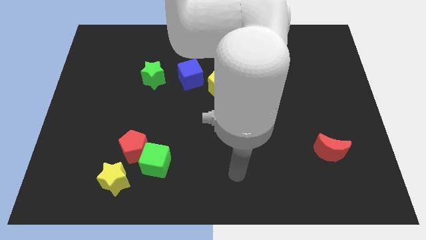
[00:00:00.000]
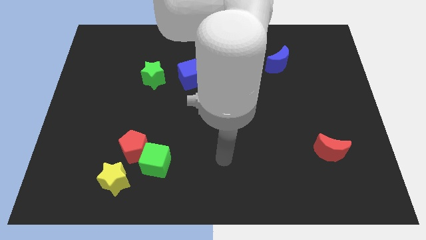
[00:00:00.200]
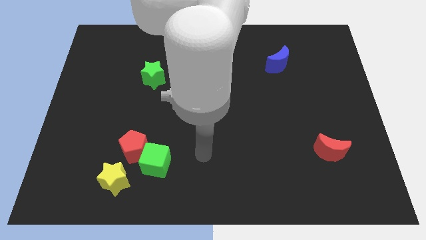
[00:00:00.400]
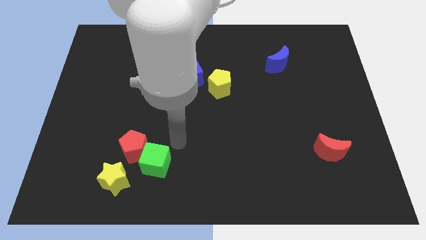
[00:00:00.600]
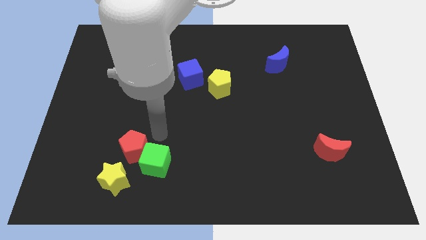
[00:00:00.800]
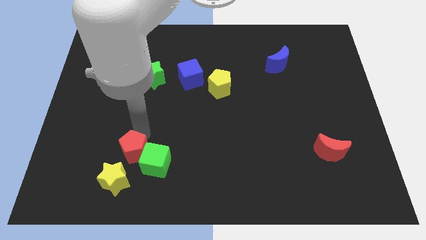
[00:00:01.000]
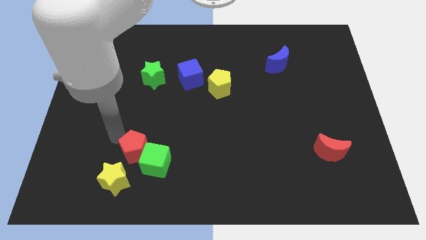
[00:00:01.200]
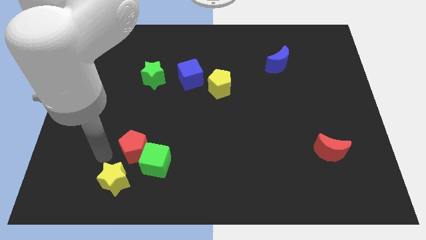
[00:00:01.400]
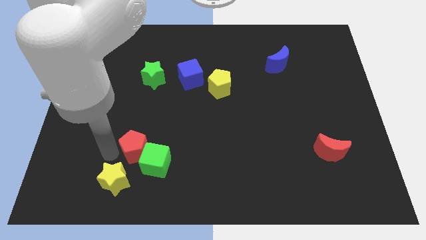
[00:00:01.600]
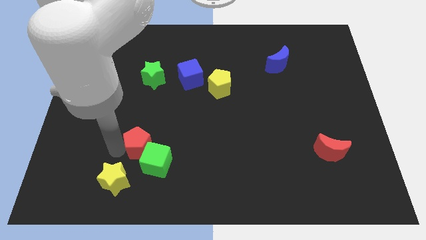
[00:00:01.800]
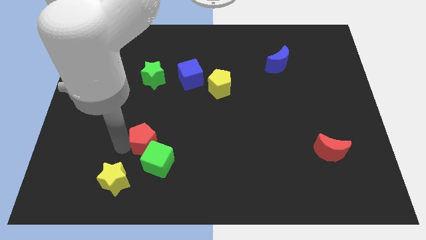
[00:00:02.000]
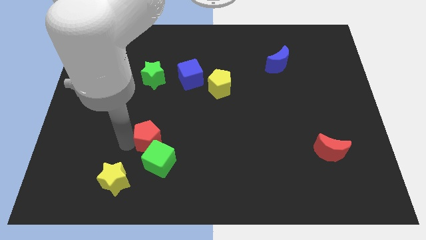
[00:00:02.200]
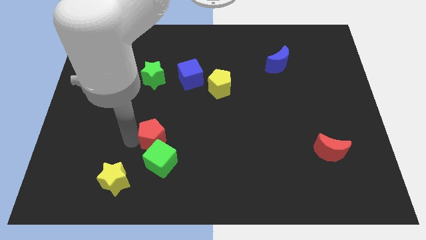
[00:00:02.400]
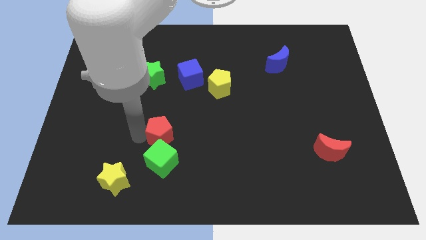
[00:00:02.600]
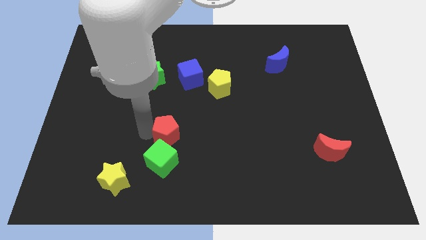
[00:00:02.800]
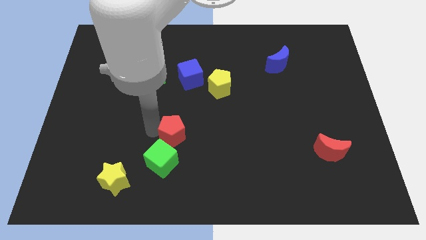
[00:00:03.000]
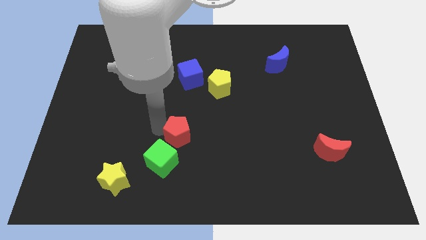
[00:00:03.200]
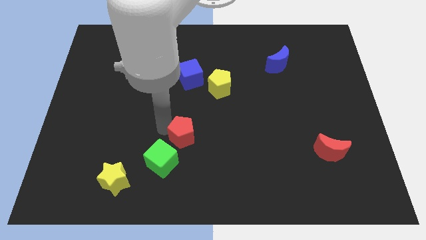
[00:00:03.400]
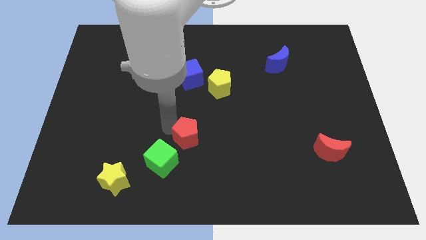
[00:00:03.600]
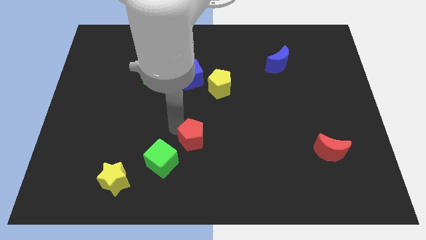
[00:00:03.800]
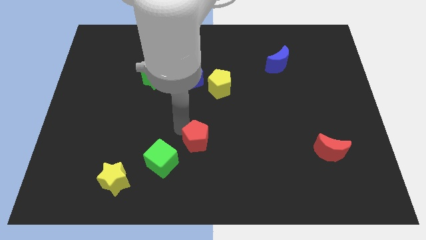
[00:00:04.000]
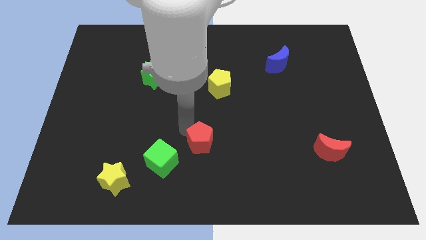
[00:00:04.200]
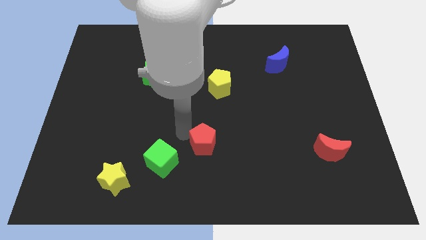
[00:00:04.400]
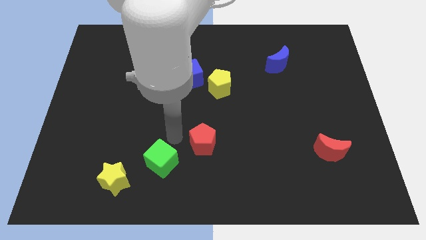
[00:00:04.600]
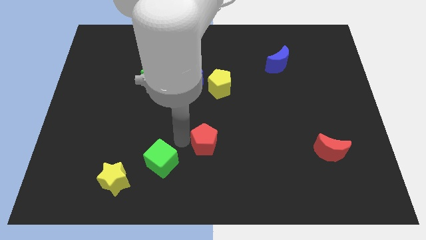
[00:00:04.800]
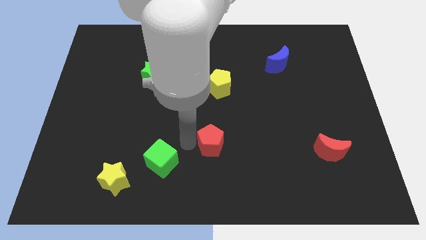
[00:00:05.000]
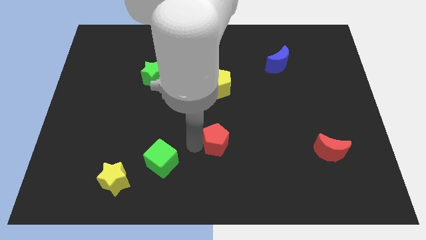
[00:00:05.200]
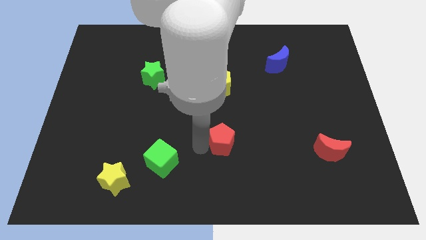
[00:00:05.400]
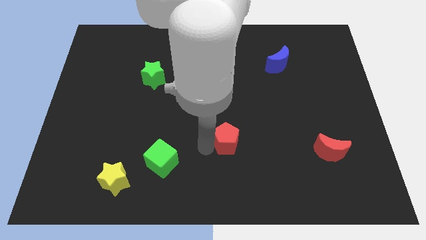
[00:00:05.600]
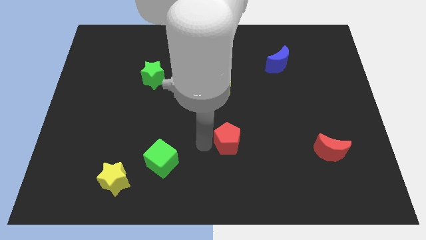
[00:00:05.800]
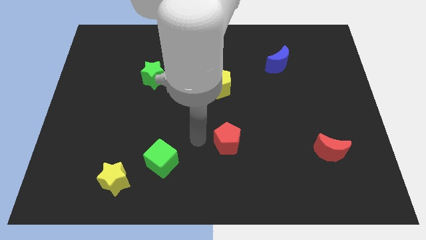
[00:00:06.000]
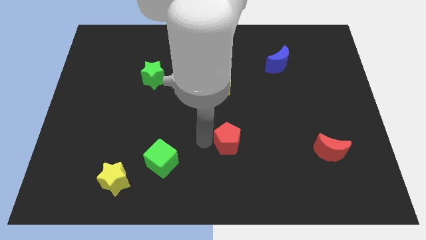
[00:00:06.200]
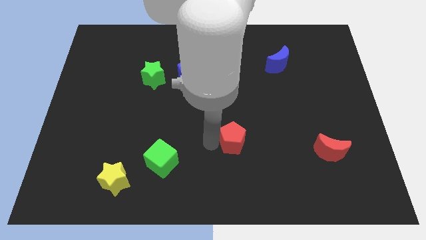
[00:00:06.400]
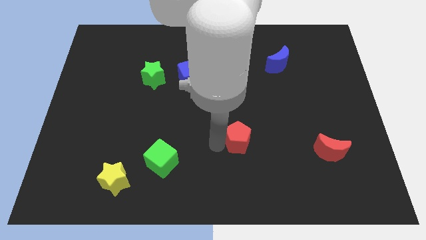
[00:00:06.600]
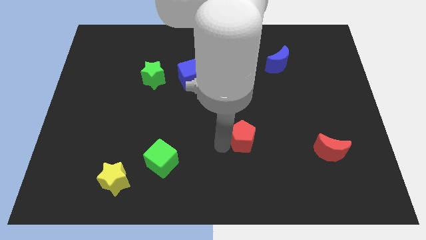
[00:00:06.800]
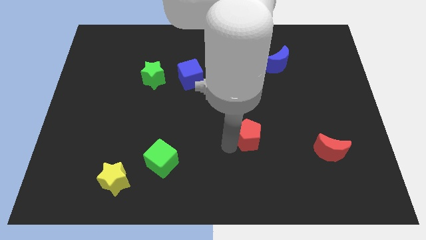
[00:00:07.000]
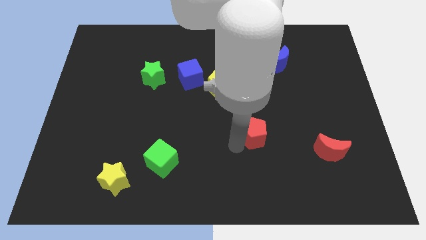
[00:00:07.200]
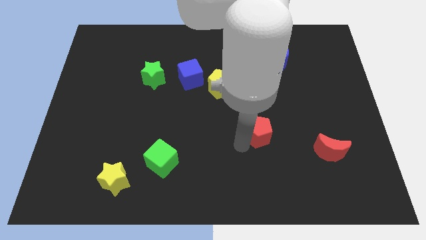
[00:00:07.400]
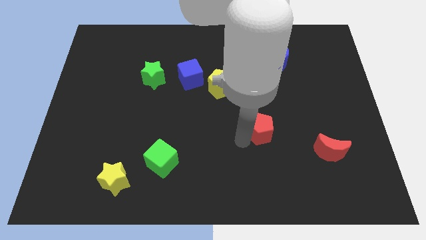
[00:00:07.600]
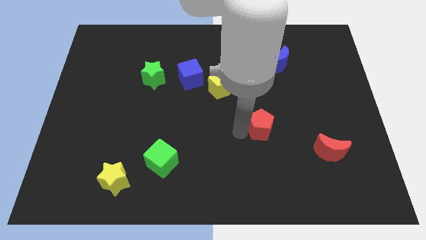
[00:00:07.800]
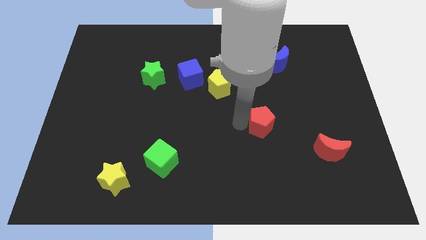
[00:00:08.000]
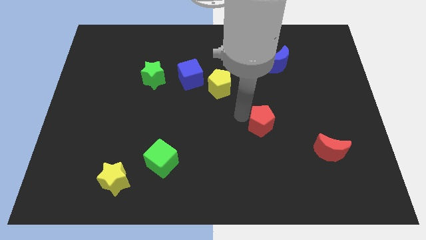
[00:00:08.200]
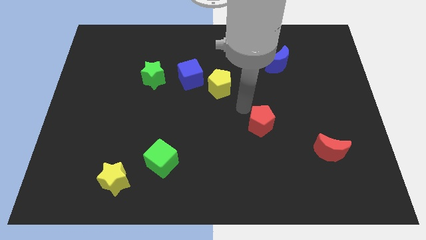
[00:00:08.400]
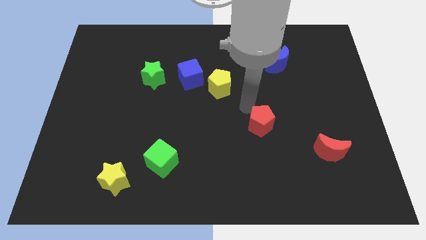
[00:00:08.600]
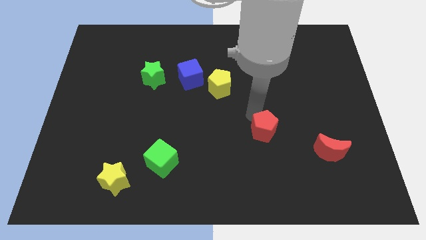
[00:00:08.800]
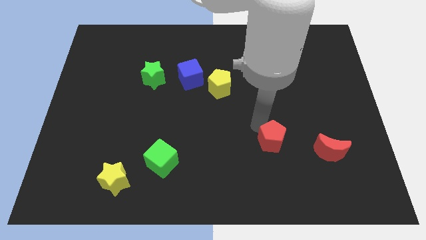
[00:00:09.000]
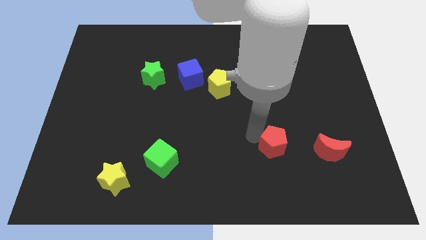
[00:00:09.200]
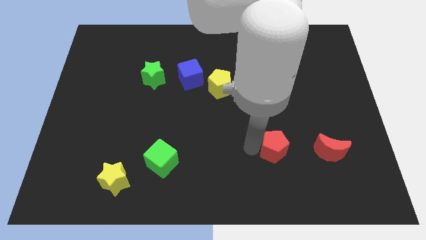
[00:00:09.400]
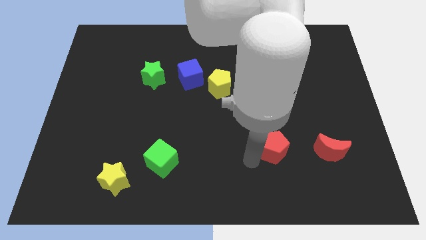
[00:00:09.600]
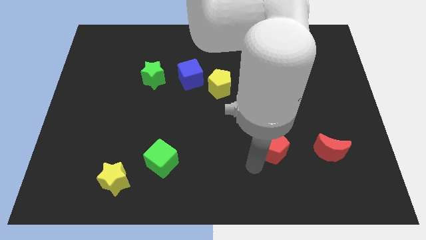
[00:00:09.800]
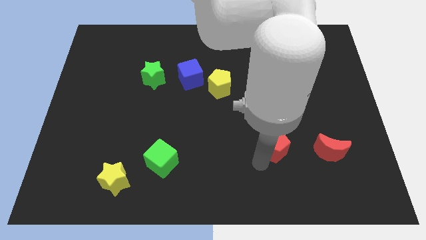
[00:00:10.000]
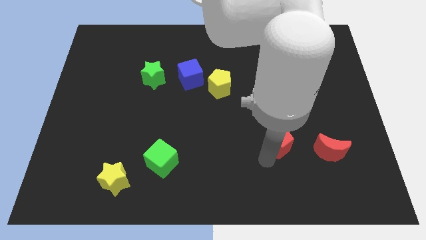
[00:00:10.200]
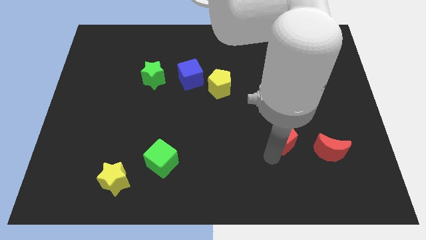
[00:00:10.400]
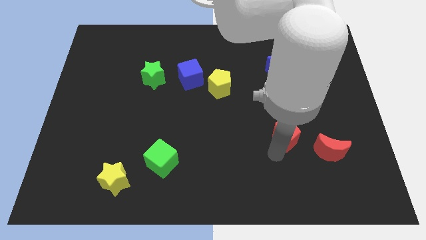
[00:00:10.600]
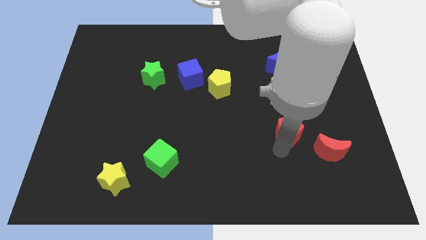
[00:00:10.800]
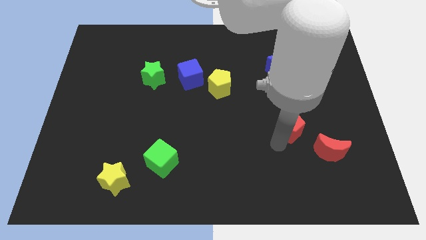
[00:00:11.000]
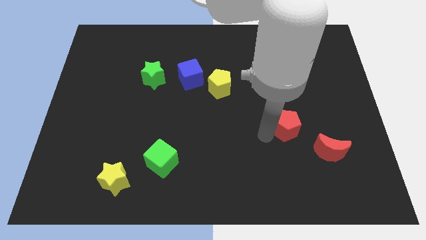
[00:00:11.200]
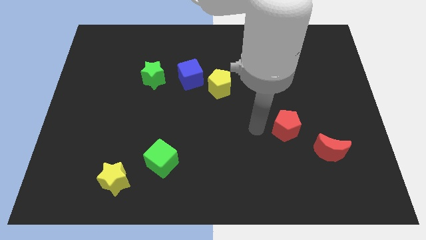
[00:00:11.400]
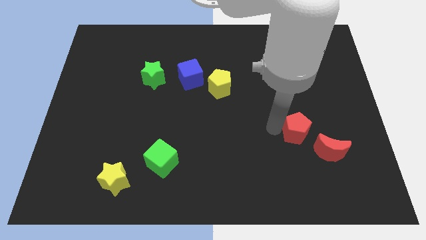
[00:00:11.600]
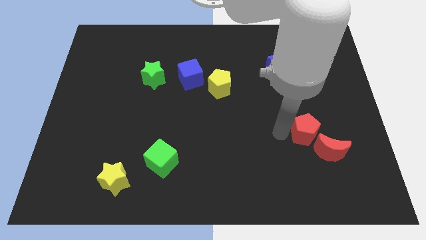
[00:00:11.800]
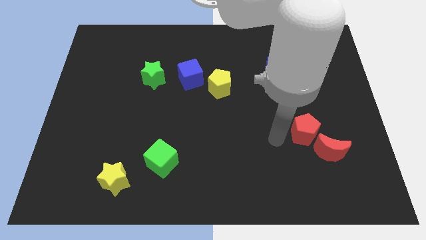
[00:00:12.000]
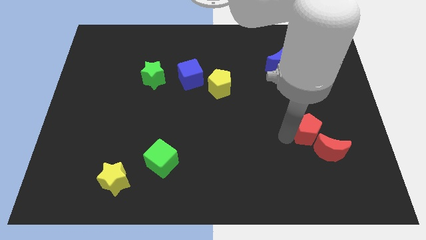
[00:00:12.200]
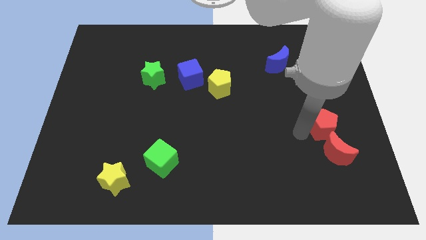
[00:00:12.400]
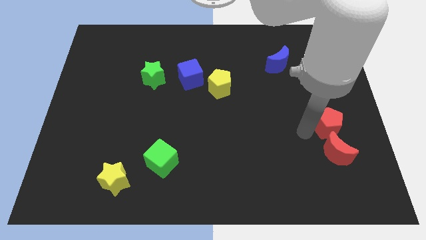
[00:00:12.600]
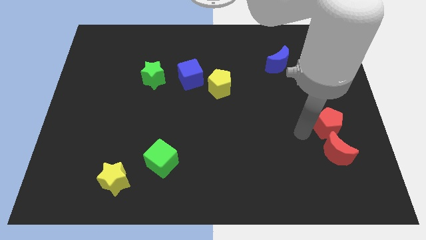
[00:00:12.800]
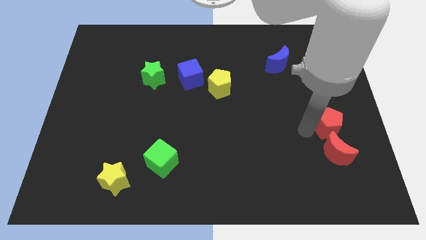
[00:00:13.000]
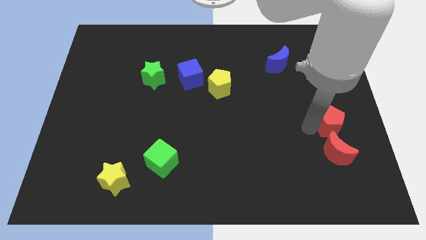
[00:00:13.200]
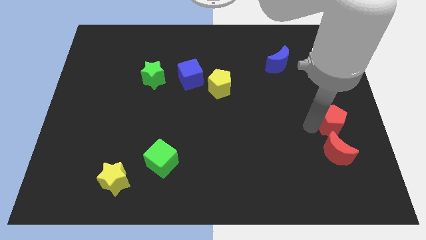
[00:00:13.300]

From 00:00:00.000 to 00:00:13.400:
slide the red pentagon to the right side
